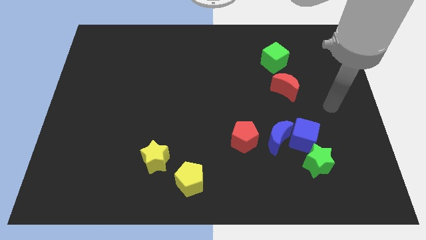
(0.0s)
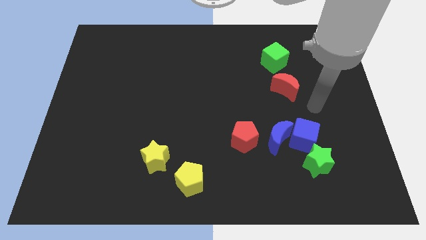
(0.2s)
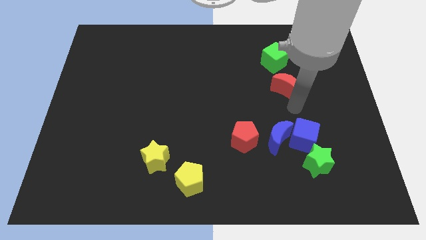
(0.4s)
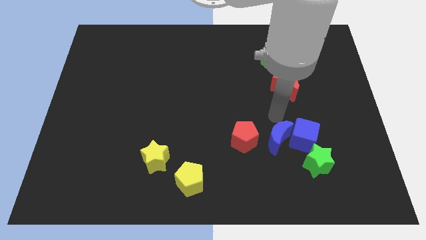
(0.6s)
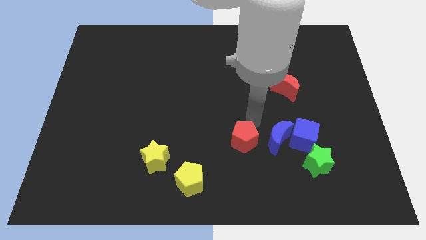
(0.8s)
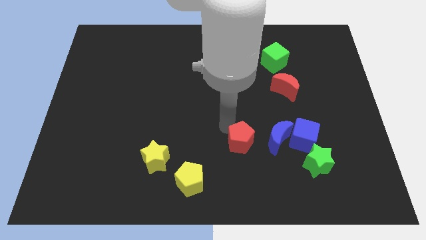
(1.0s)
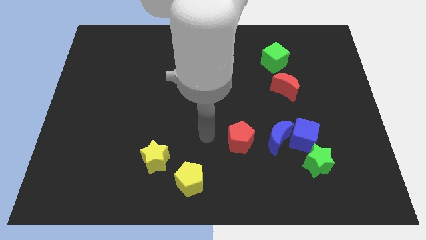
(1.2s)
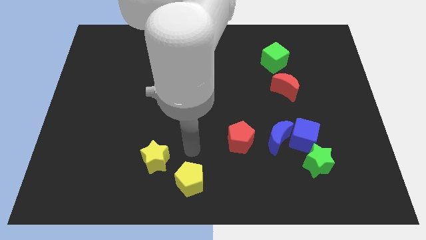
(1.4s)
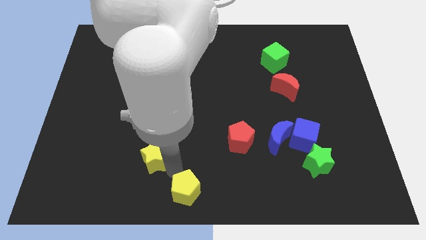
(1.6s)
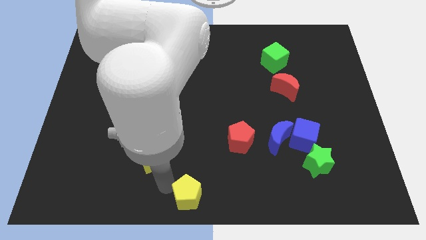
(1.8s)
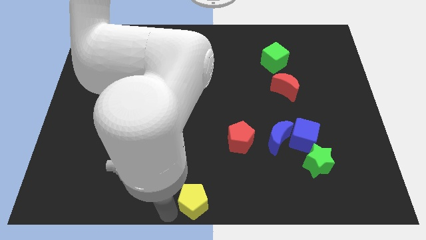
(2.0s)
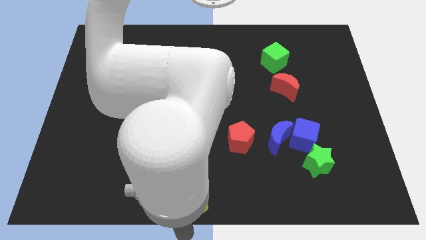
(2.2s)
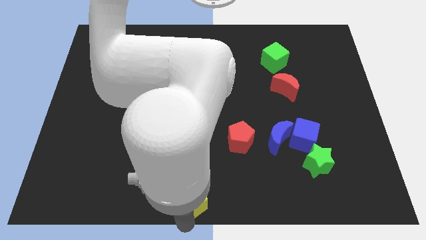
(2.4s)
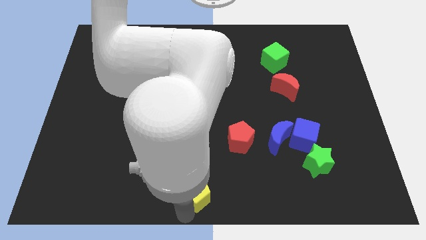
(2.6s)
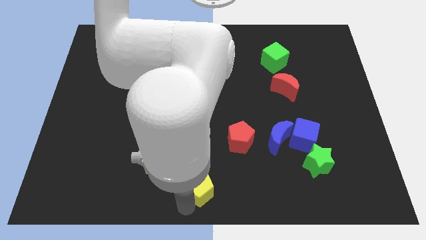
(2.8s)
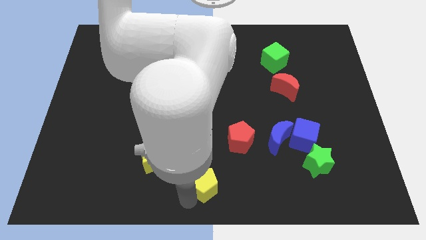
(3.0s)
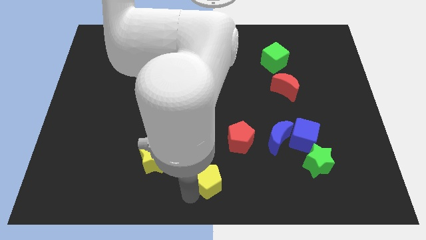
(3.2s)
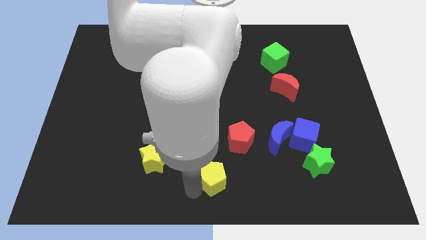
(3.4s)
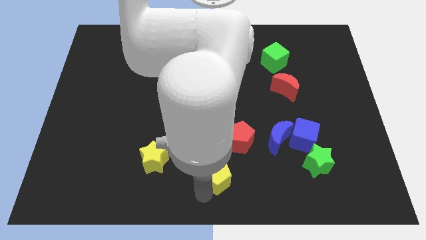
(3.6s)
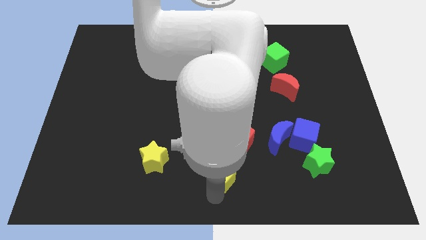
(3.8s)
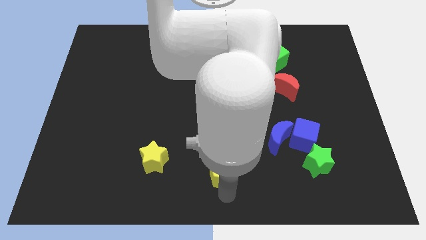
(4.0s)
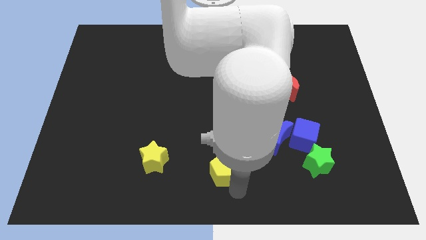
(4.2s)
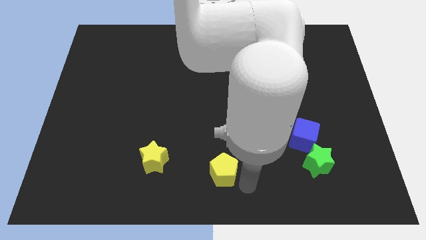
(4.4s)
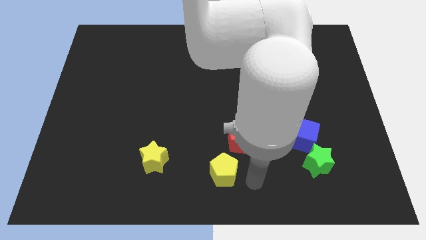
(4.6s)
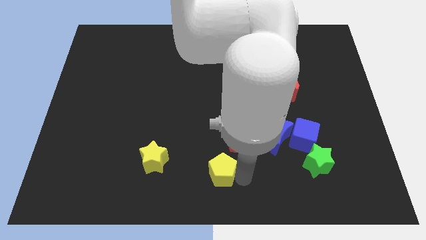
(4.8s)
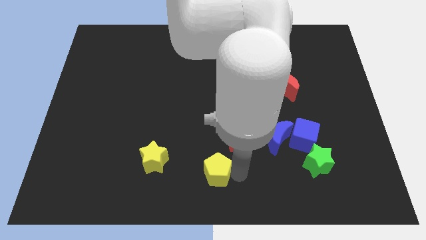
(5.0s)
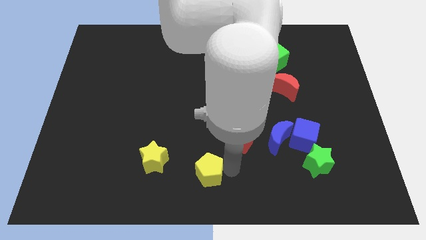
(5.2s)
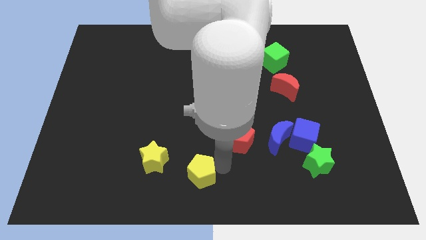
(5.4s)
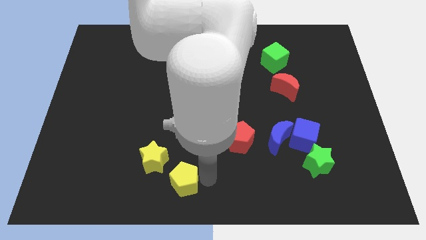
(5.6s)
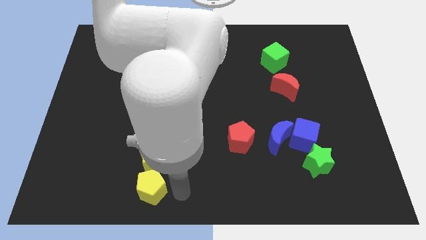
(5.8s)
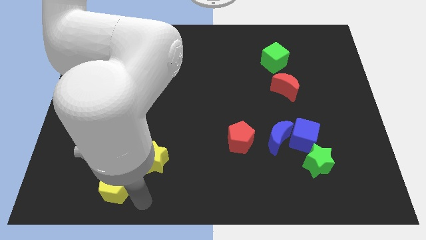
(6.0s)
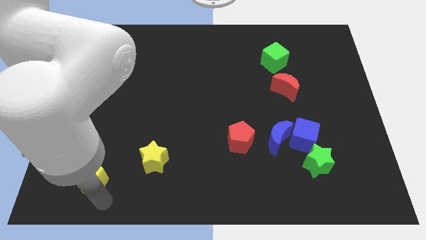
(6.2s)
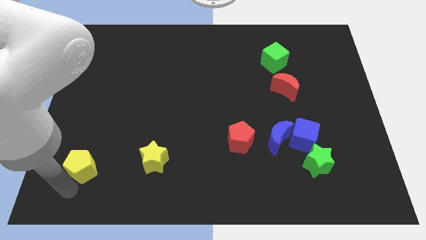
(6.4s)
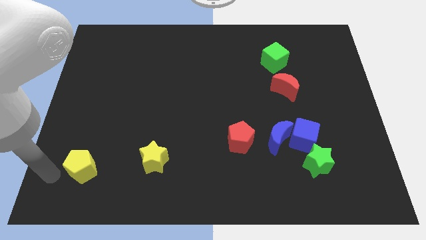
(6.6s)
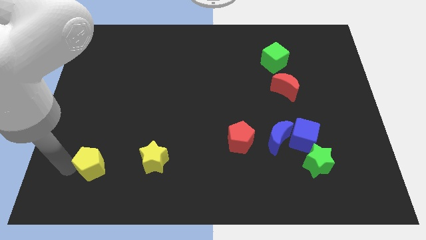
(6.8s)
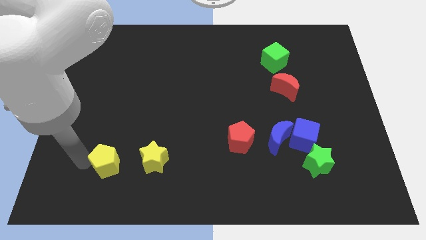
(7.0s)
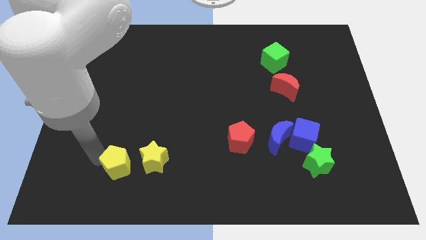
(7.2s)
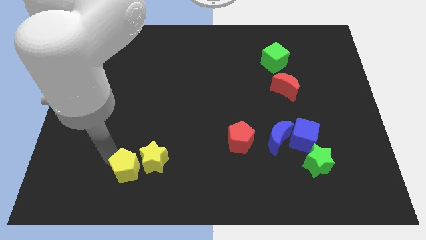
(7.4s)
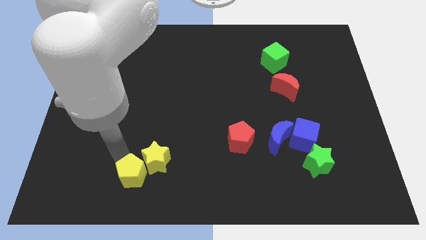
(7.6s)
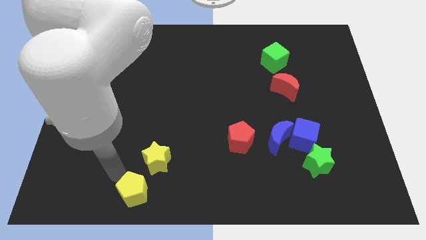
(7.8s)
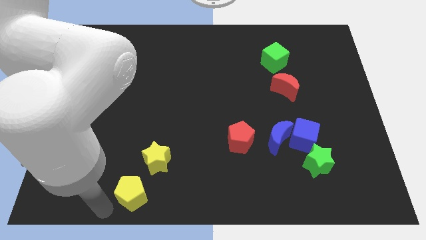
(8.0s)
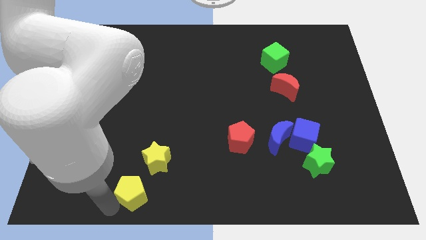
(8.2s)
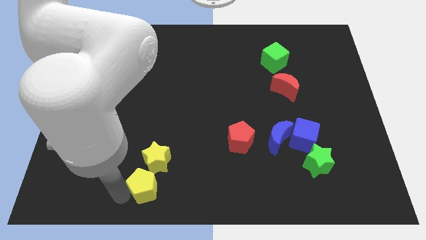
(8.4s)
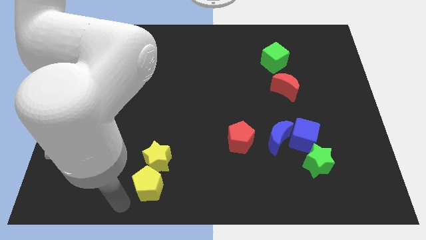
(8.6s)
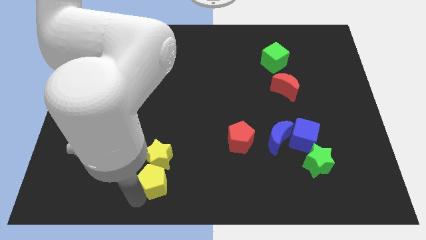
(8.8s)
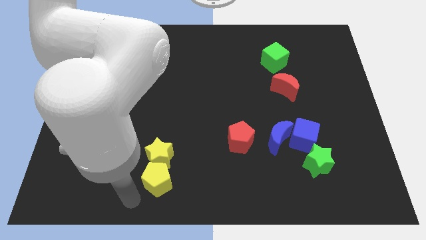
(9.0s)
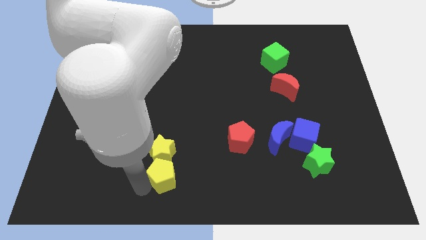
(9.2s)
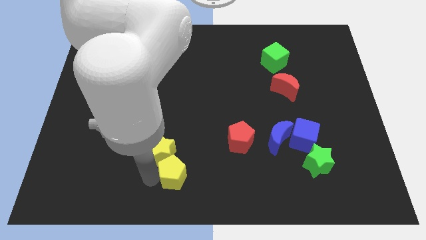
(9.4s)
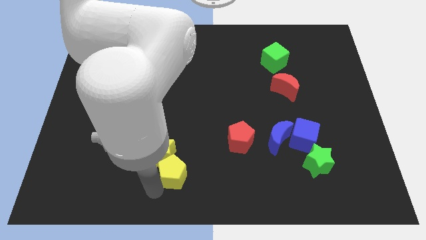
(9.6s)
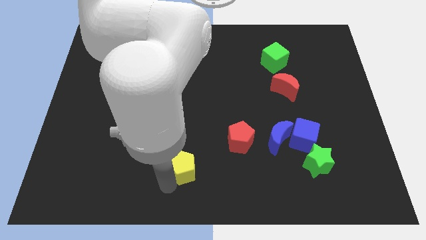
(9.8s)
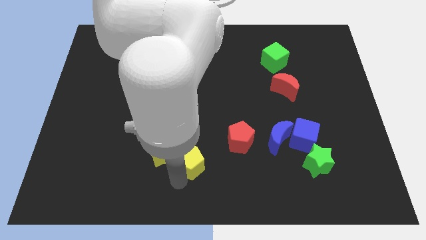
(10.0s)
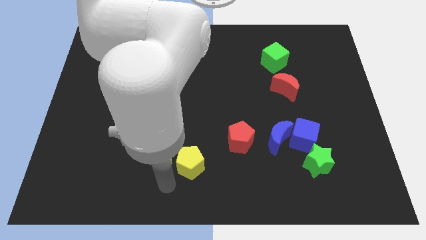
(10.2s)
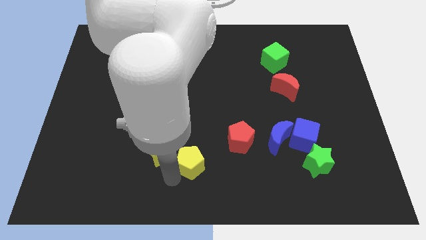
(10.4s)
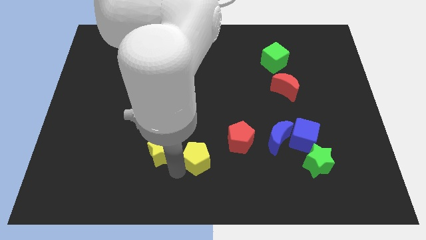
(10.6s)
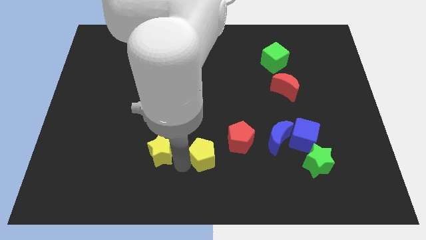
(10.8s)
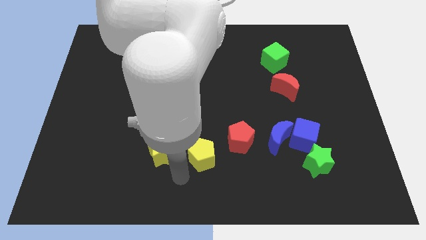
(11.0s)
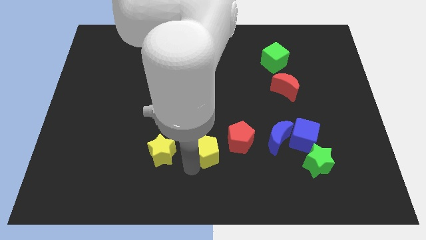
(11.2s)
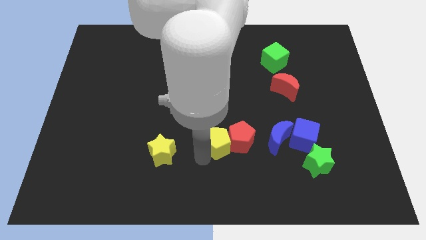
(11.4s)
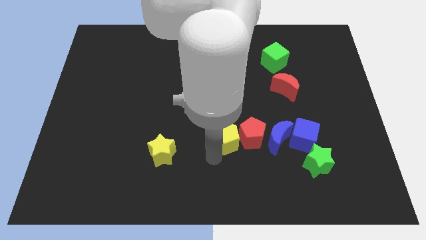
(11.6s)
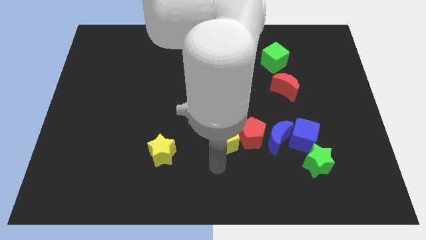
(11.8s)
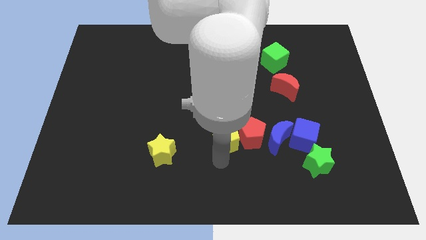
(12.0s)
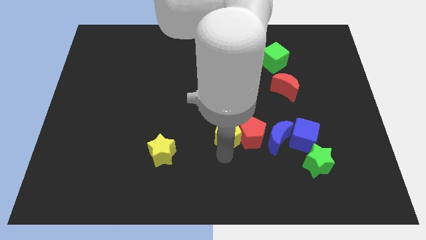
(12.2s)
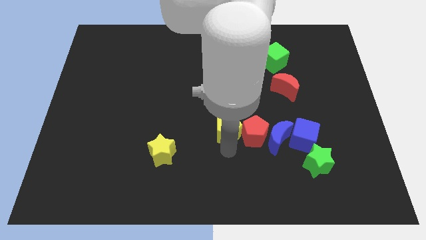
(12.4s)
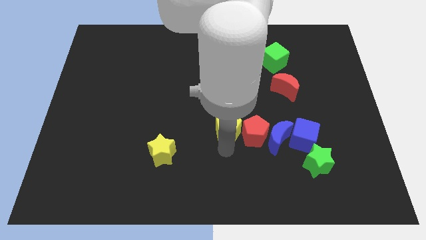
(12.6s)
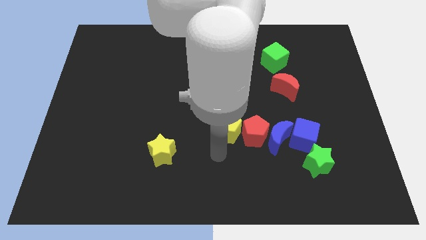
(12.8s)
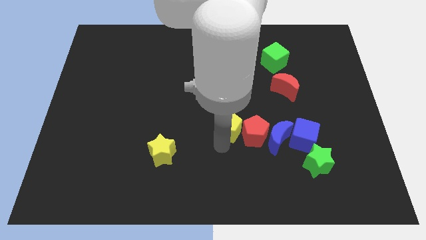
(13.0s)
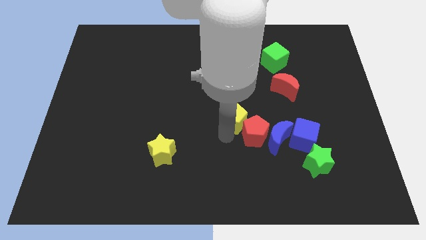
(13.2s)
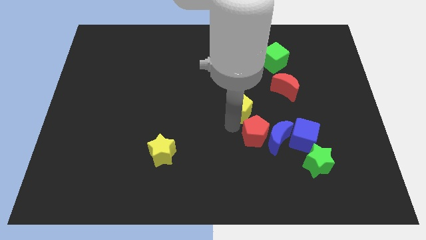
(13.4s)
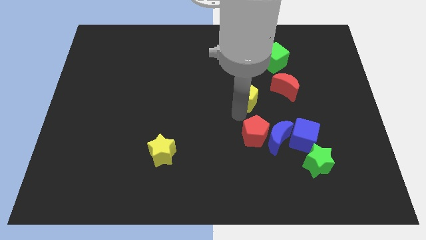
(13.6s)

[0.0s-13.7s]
move the yellow pentagon just left of the red moon
